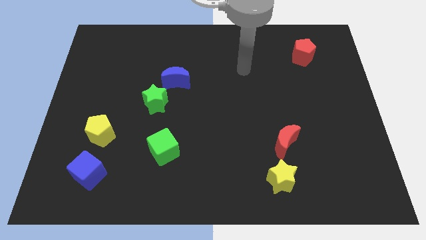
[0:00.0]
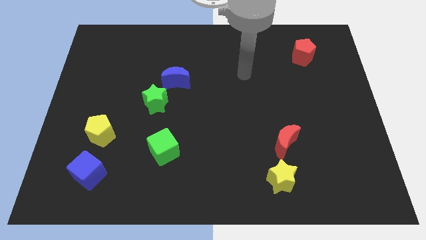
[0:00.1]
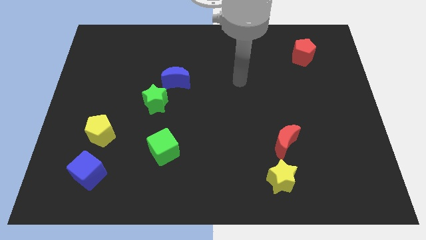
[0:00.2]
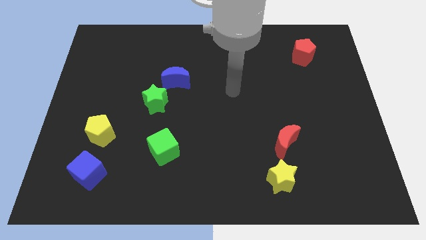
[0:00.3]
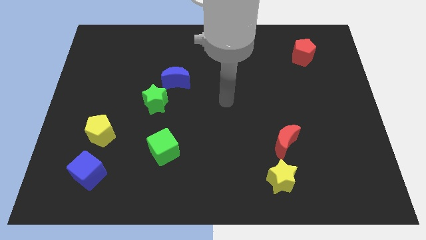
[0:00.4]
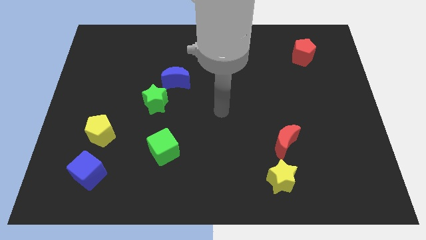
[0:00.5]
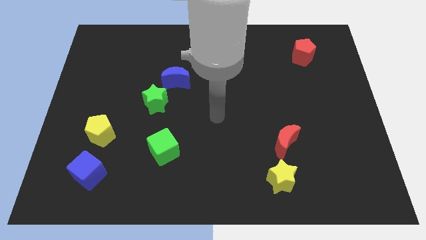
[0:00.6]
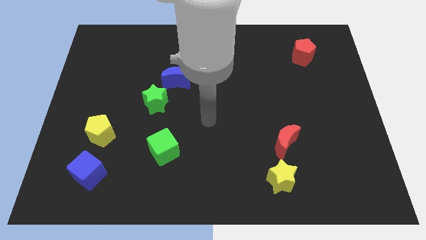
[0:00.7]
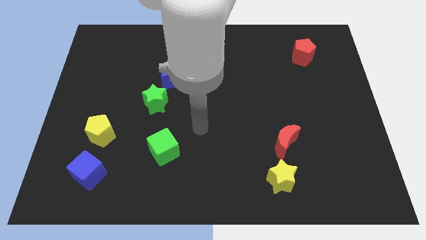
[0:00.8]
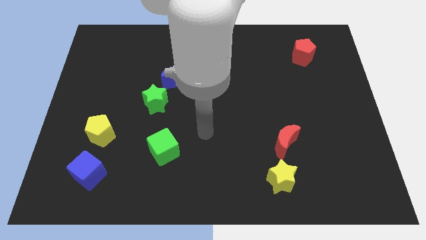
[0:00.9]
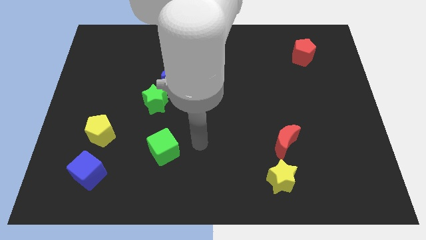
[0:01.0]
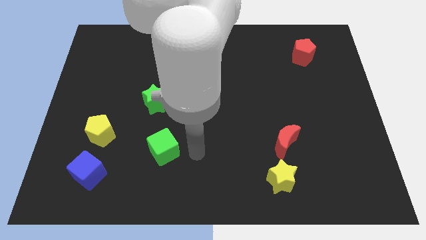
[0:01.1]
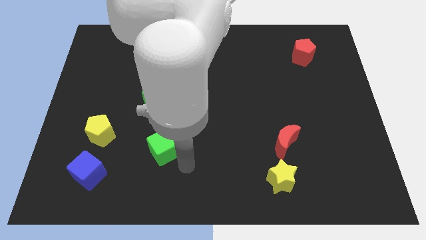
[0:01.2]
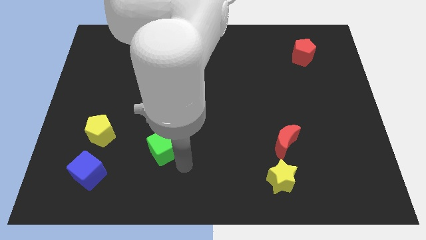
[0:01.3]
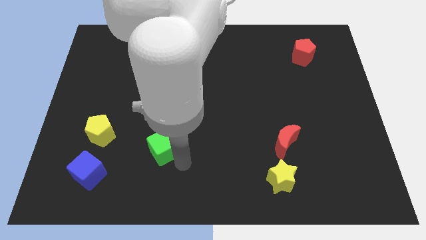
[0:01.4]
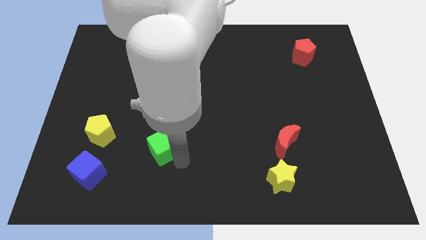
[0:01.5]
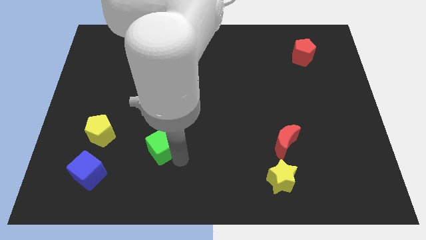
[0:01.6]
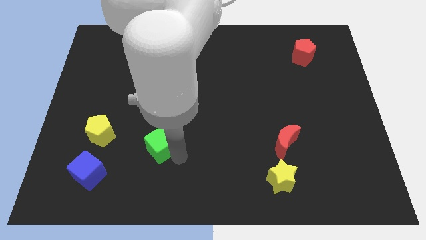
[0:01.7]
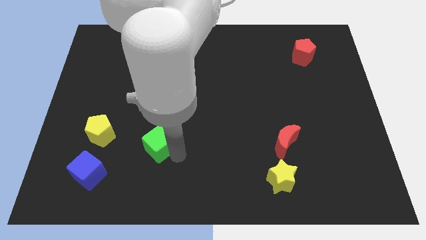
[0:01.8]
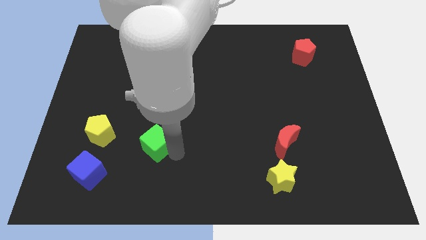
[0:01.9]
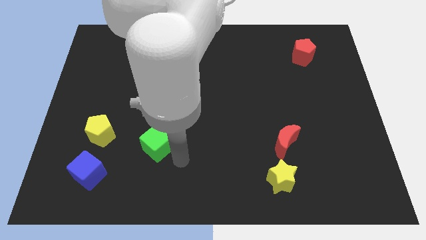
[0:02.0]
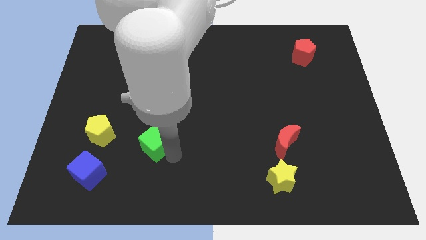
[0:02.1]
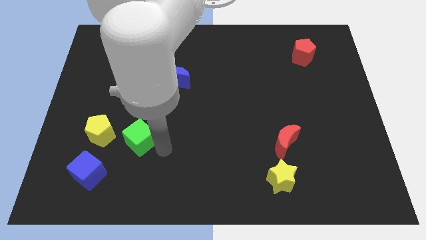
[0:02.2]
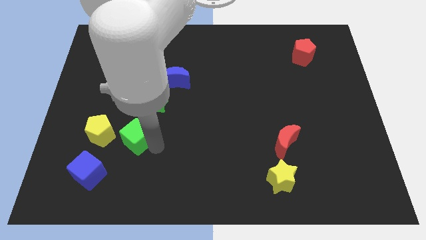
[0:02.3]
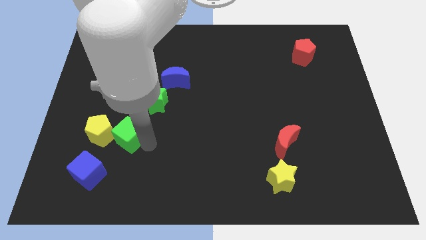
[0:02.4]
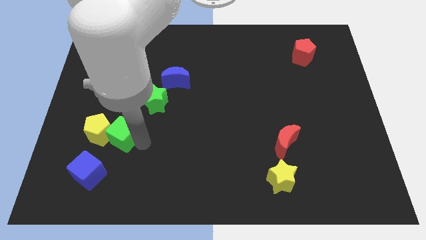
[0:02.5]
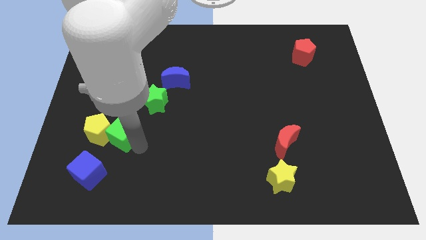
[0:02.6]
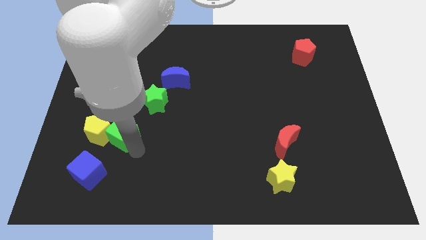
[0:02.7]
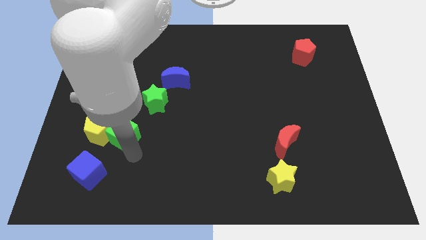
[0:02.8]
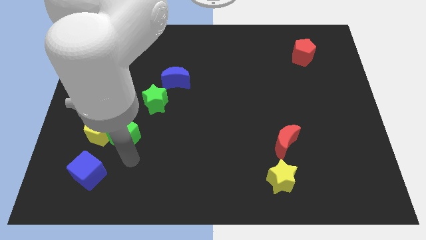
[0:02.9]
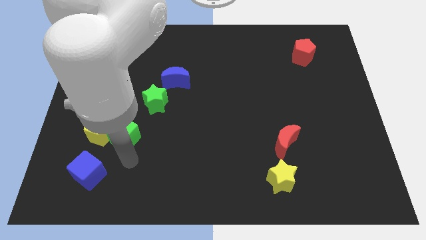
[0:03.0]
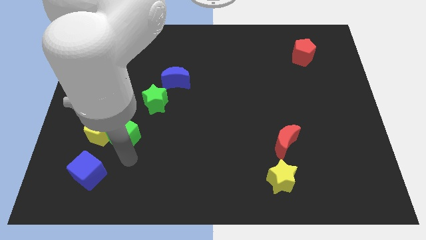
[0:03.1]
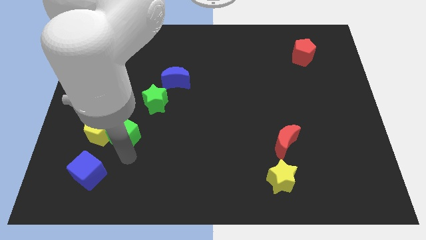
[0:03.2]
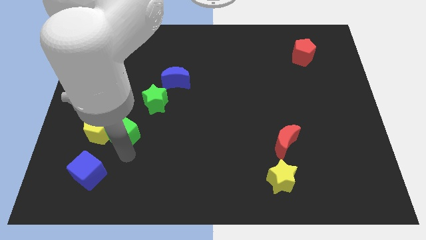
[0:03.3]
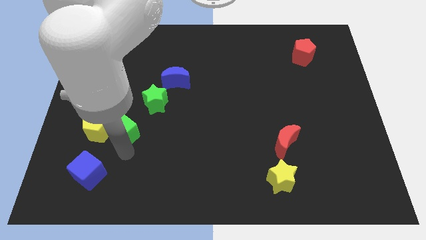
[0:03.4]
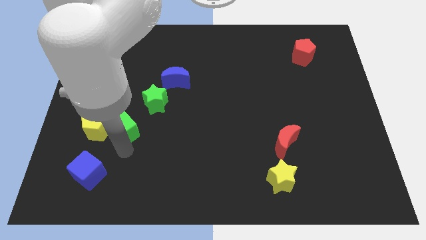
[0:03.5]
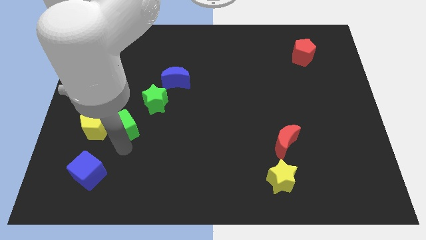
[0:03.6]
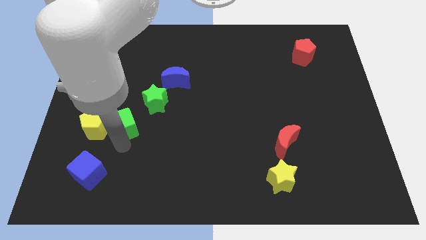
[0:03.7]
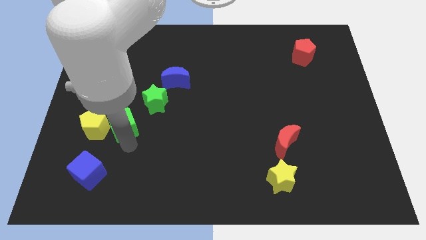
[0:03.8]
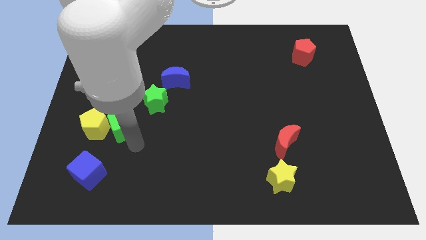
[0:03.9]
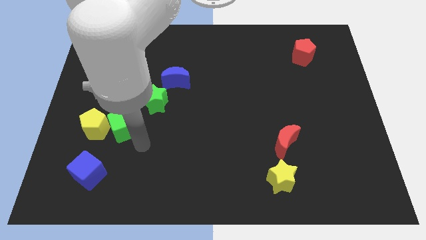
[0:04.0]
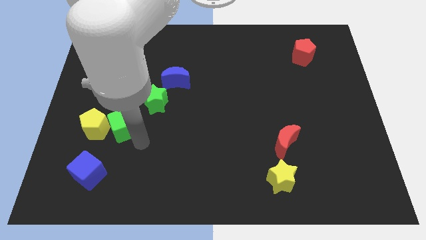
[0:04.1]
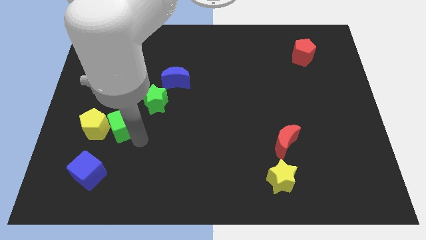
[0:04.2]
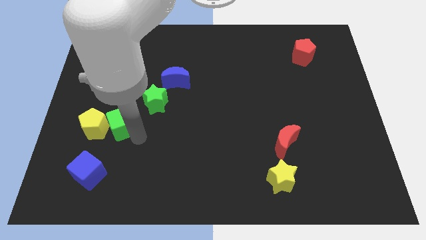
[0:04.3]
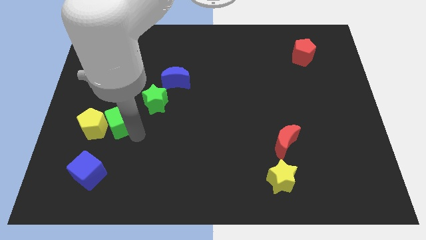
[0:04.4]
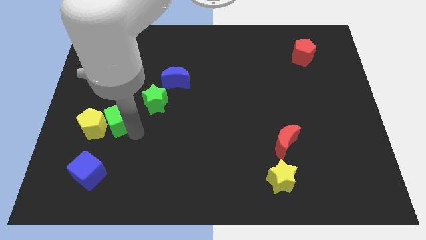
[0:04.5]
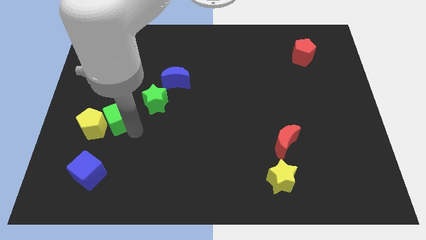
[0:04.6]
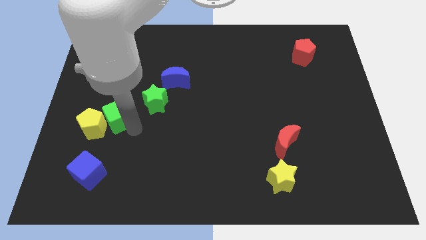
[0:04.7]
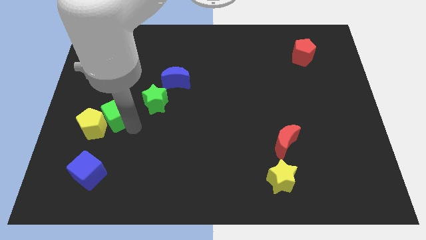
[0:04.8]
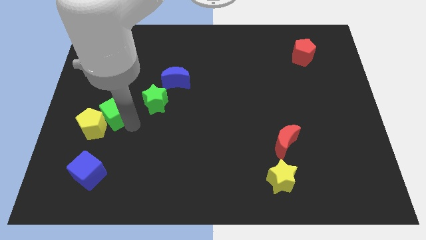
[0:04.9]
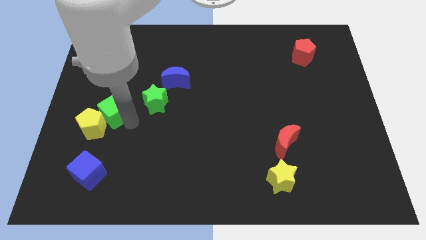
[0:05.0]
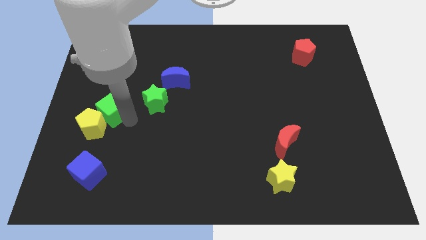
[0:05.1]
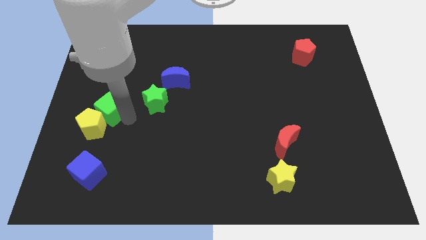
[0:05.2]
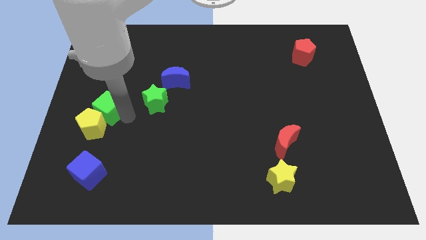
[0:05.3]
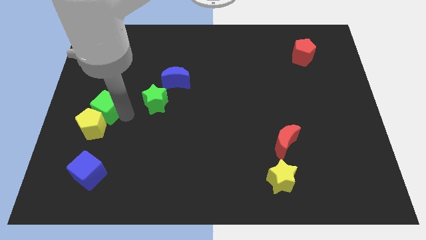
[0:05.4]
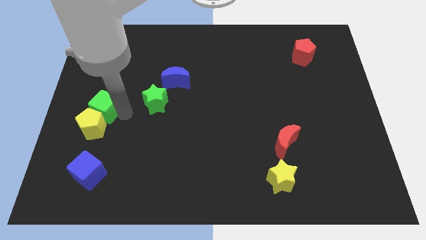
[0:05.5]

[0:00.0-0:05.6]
move the green cube to the center left

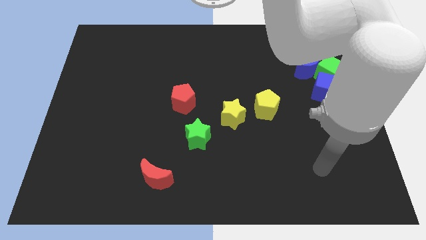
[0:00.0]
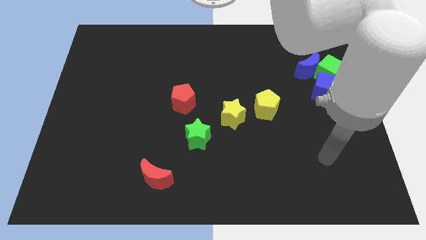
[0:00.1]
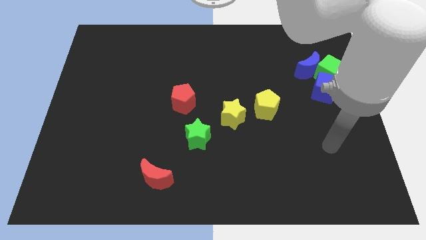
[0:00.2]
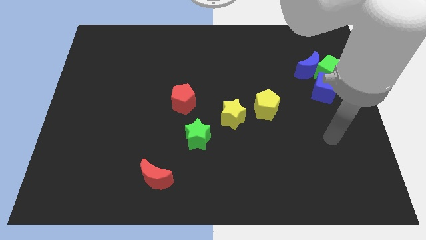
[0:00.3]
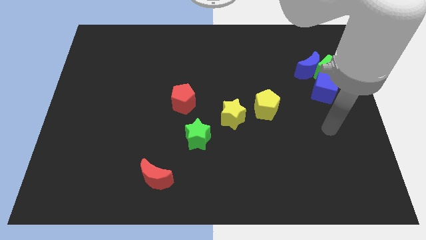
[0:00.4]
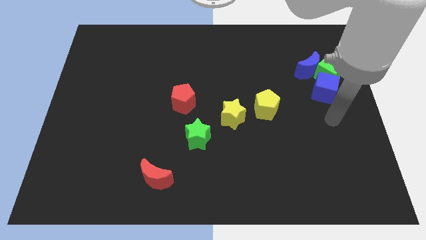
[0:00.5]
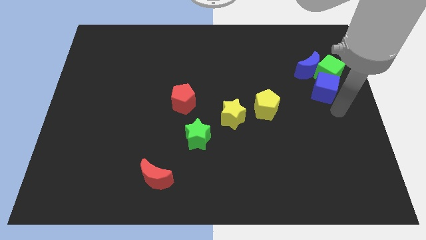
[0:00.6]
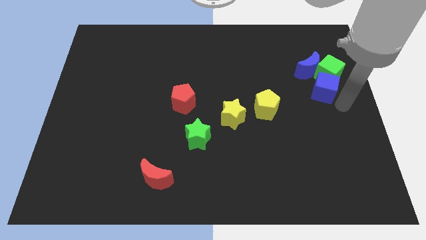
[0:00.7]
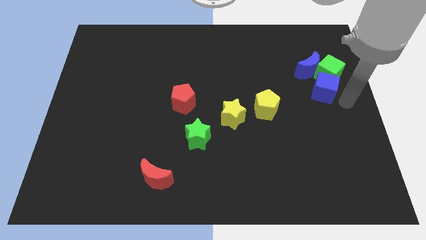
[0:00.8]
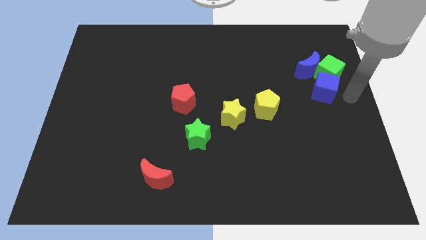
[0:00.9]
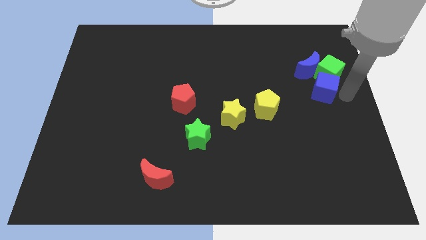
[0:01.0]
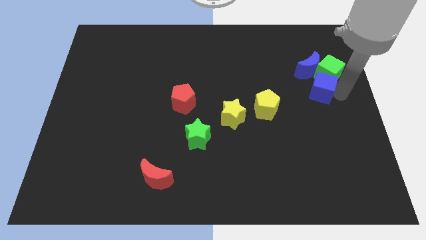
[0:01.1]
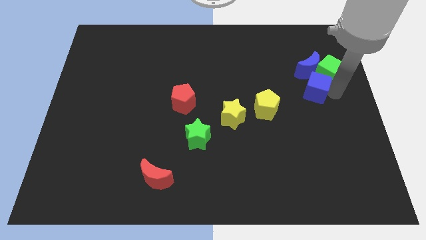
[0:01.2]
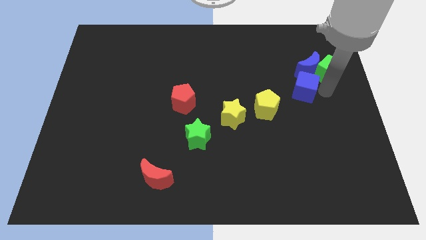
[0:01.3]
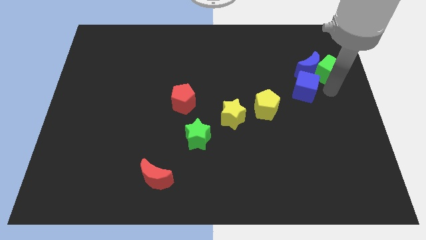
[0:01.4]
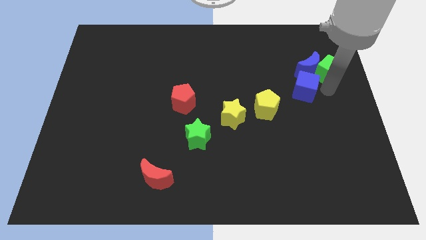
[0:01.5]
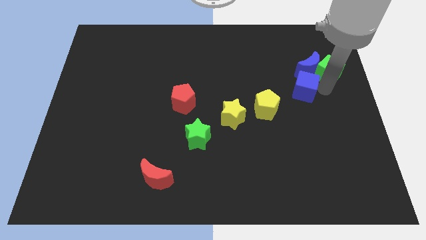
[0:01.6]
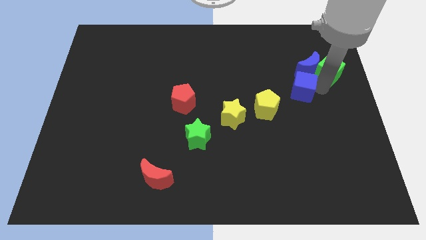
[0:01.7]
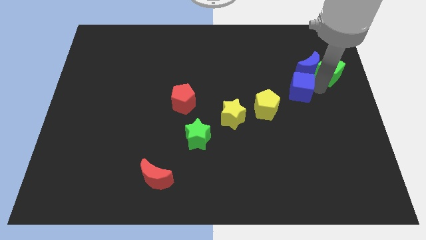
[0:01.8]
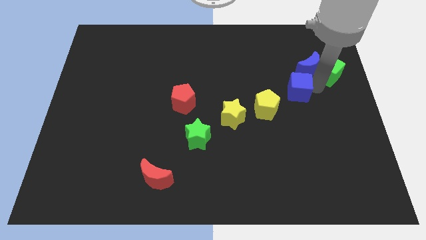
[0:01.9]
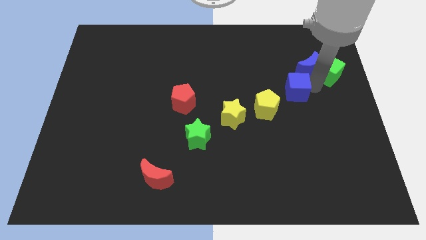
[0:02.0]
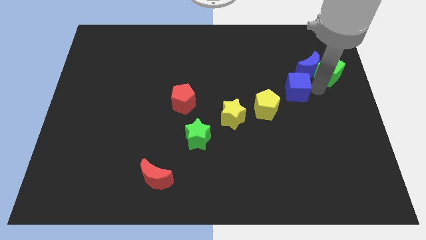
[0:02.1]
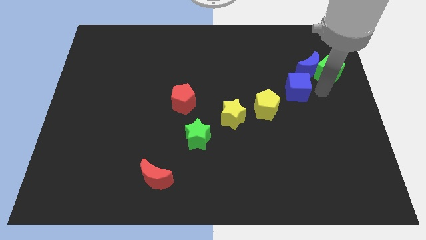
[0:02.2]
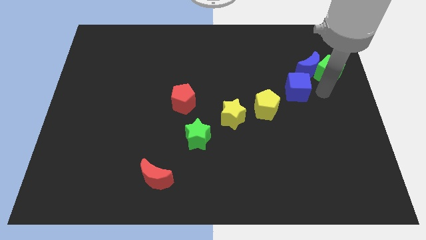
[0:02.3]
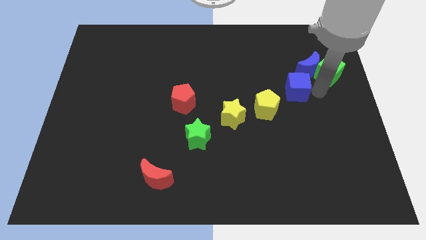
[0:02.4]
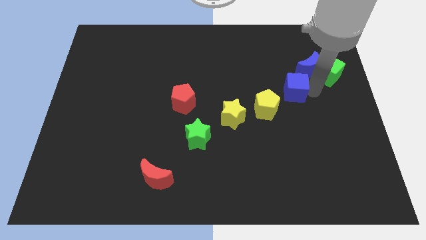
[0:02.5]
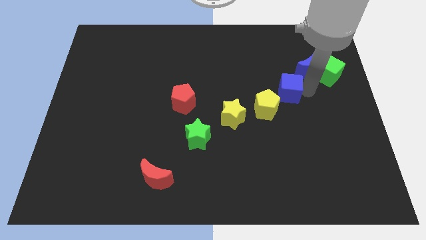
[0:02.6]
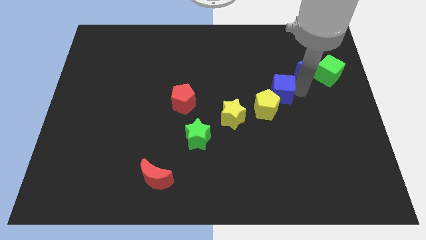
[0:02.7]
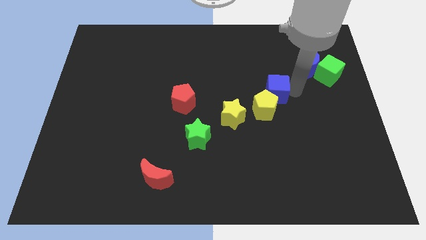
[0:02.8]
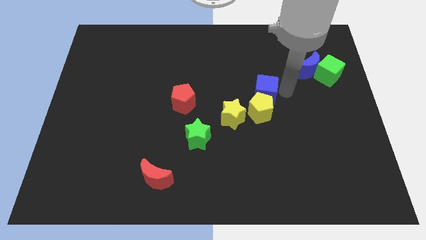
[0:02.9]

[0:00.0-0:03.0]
push the blue cube to the middle of the board
